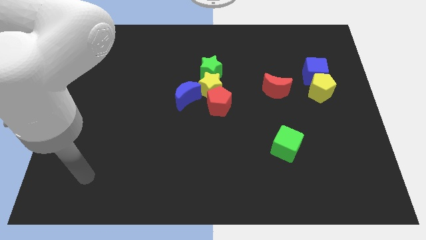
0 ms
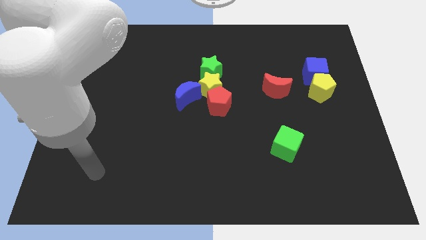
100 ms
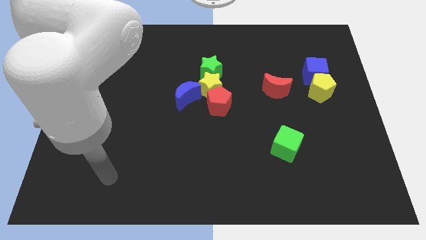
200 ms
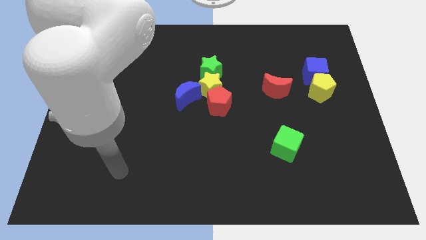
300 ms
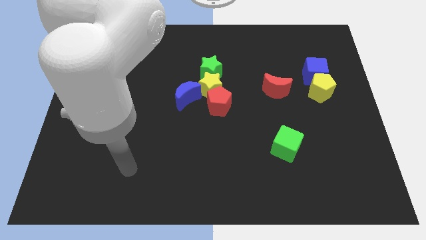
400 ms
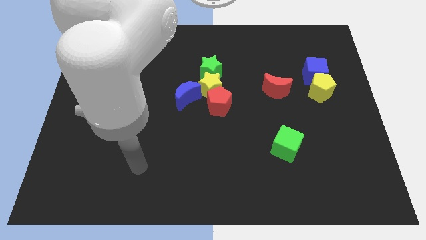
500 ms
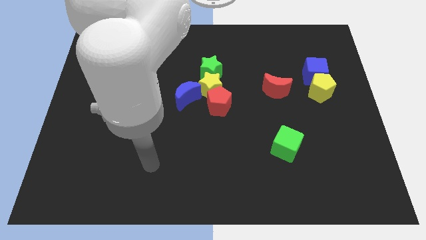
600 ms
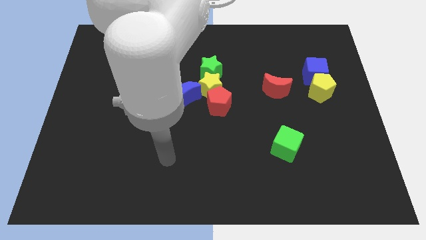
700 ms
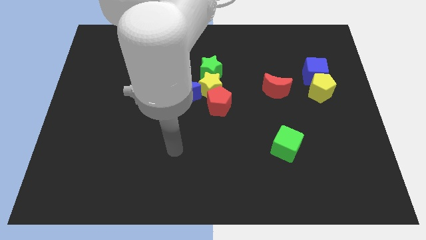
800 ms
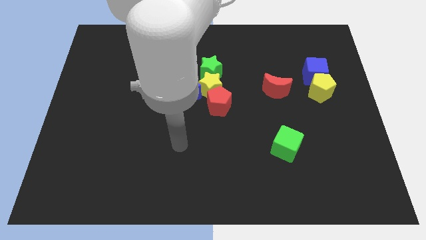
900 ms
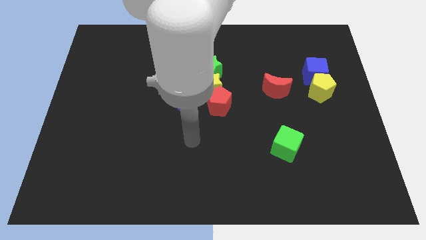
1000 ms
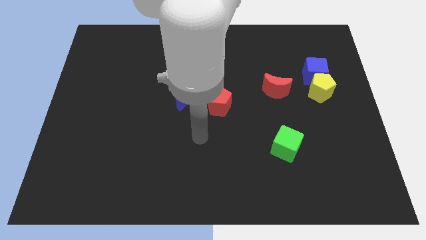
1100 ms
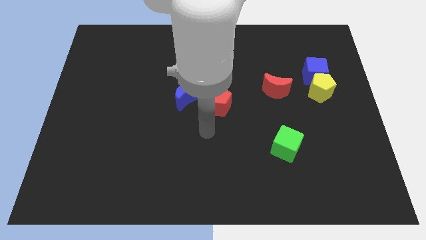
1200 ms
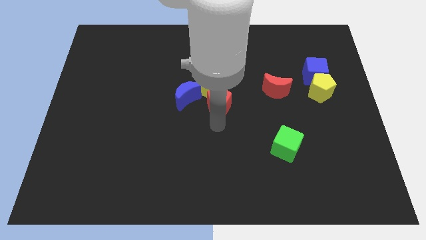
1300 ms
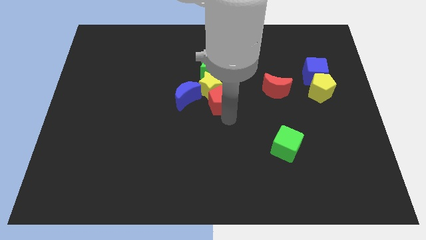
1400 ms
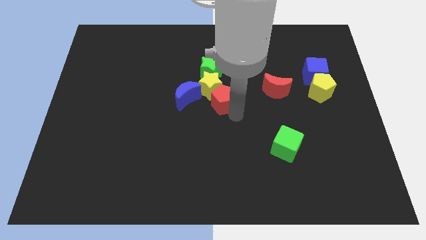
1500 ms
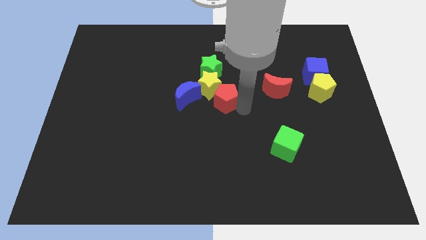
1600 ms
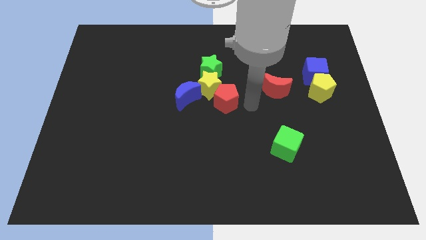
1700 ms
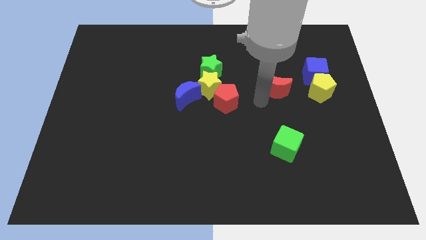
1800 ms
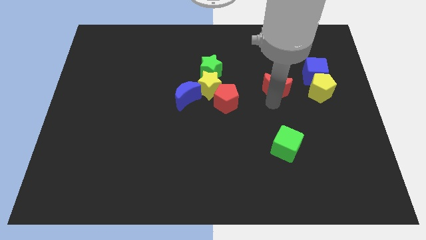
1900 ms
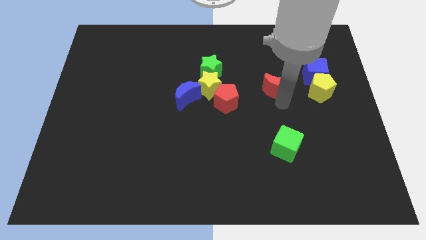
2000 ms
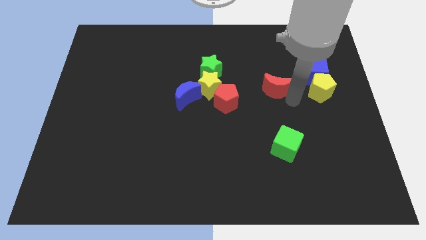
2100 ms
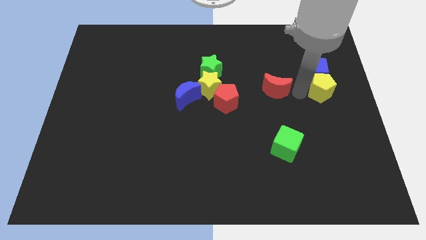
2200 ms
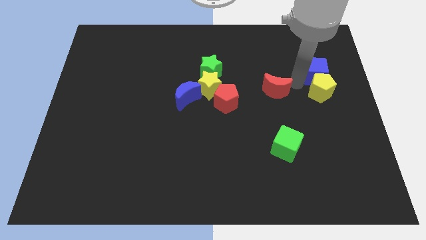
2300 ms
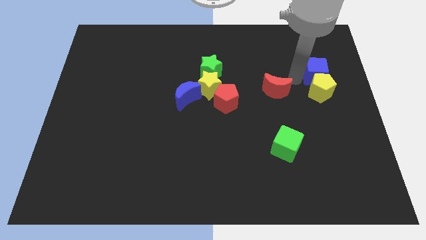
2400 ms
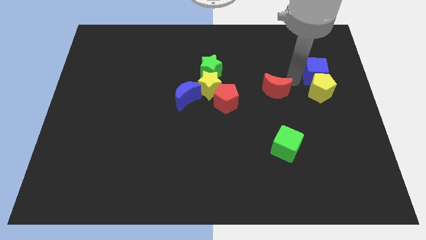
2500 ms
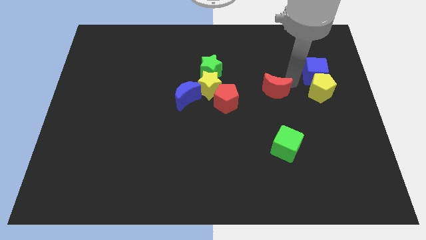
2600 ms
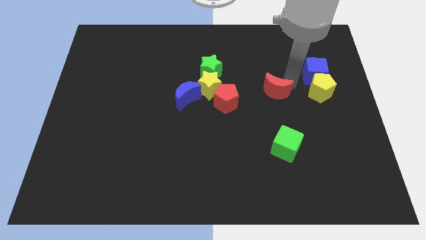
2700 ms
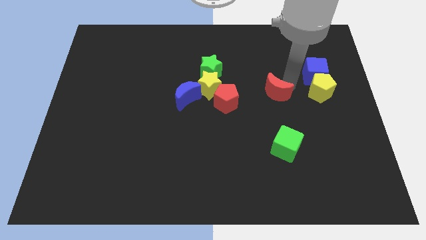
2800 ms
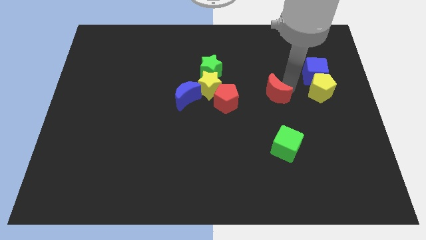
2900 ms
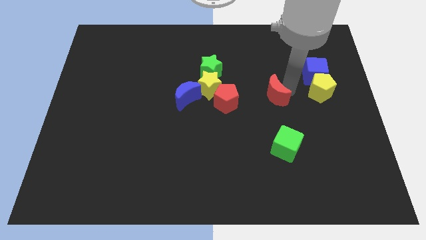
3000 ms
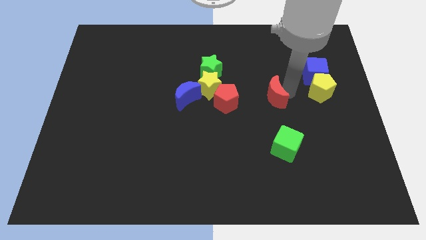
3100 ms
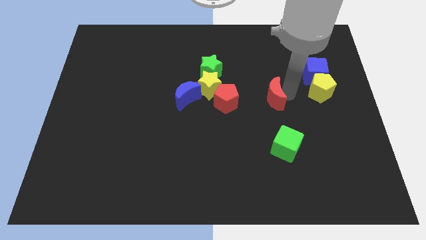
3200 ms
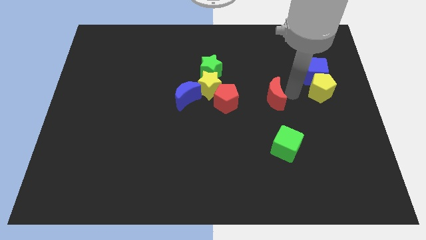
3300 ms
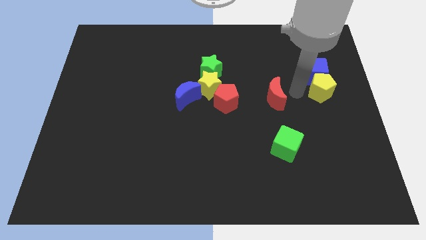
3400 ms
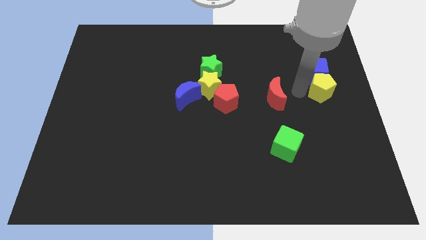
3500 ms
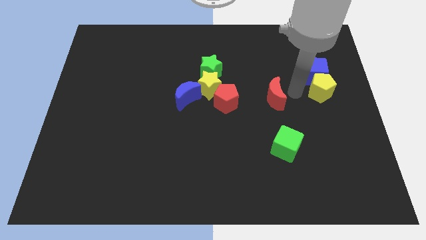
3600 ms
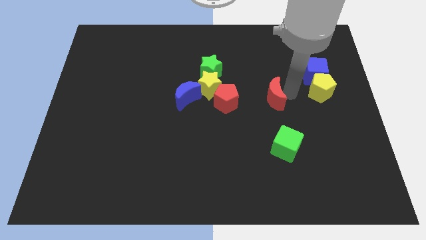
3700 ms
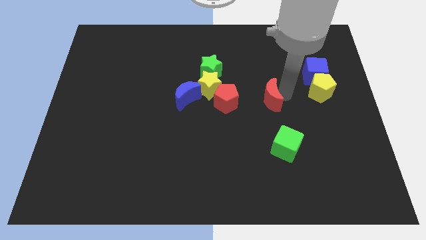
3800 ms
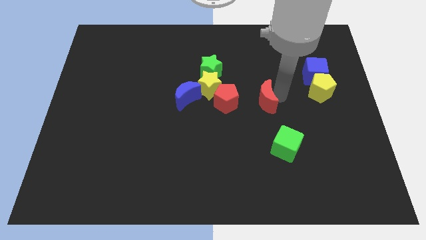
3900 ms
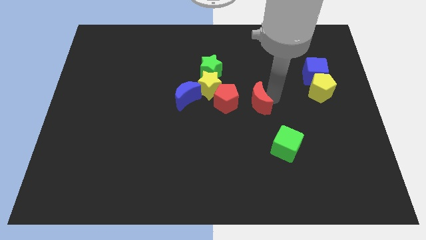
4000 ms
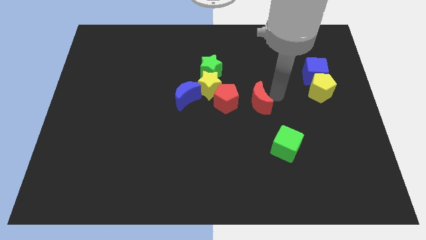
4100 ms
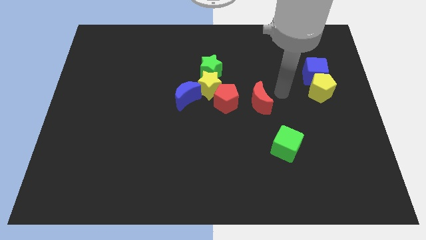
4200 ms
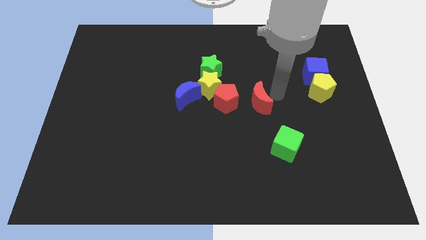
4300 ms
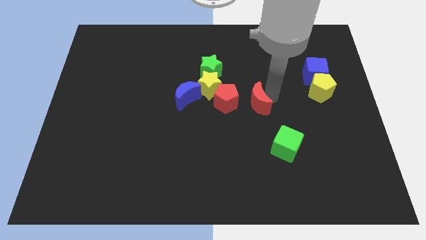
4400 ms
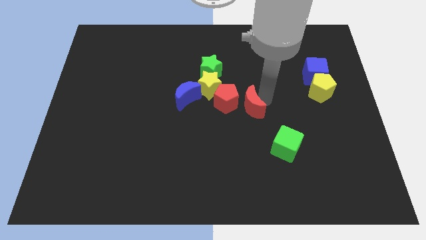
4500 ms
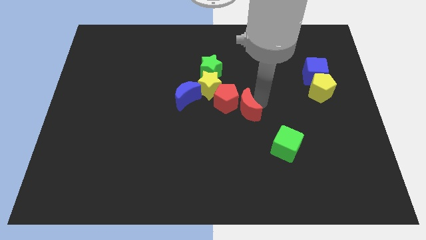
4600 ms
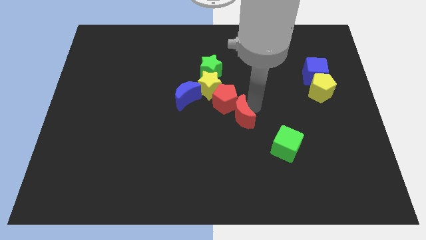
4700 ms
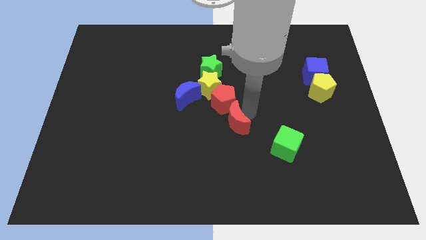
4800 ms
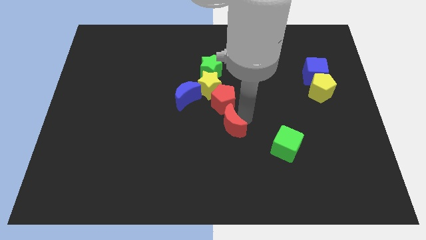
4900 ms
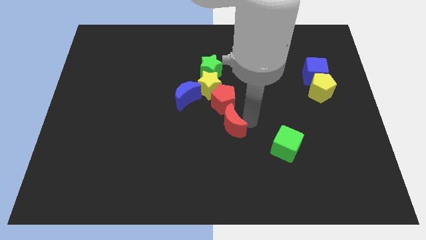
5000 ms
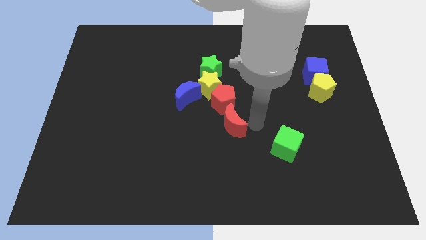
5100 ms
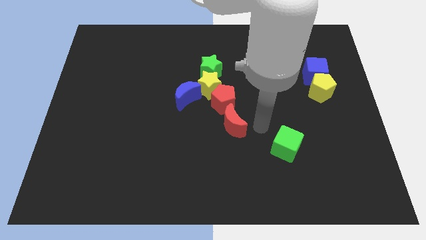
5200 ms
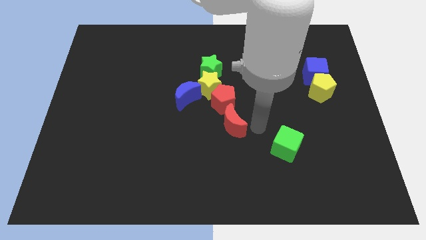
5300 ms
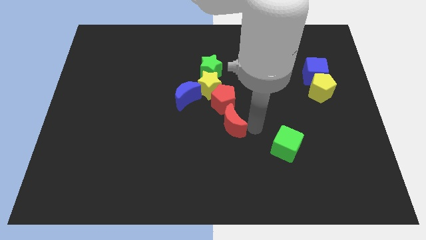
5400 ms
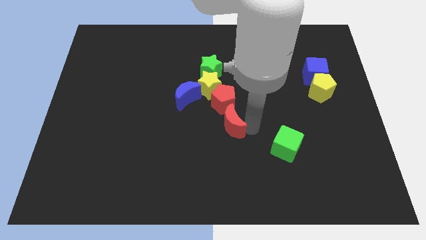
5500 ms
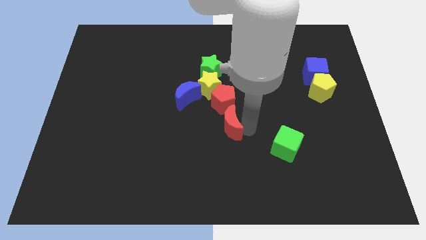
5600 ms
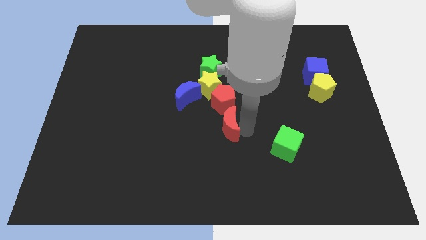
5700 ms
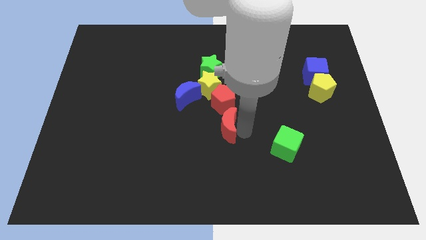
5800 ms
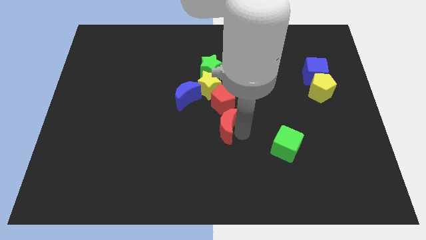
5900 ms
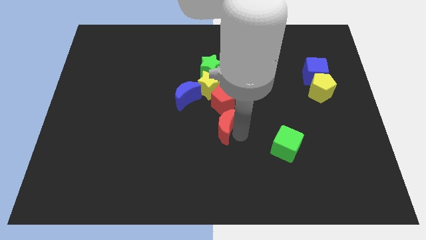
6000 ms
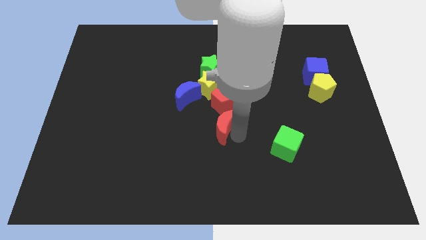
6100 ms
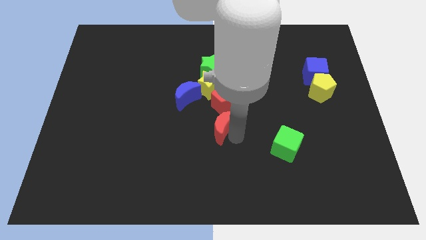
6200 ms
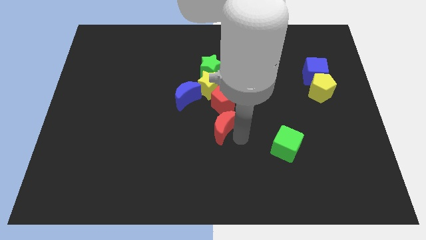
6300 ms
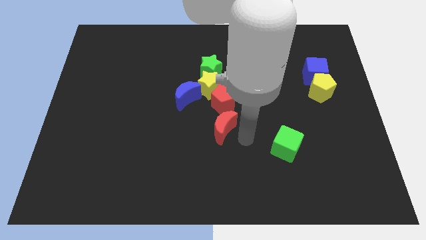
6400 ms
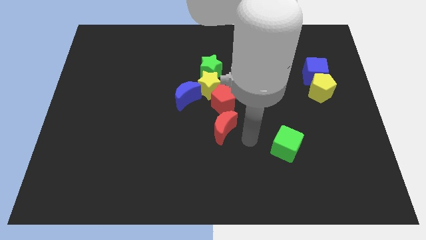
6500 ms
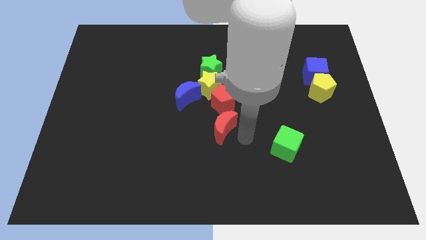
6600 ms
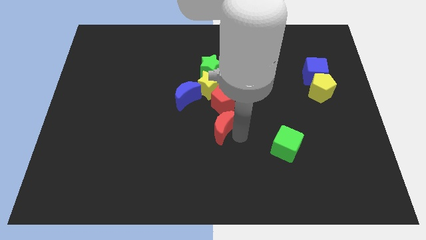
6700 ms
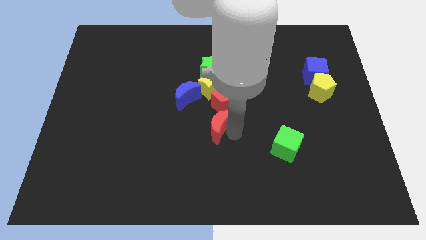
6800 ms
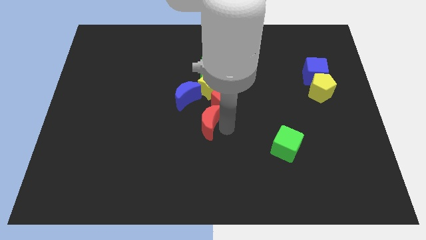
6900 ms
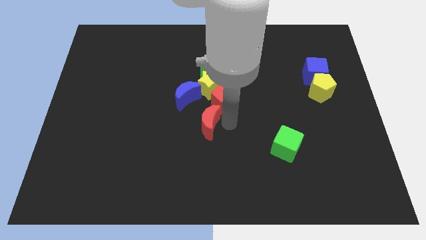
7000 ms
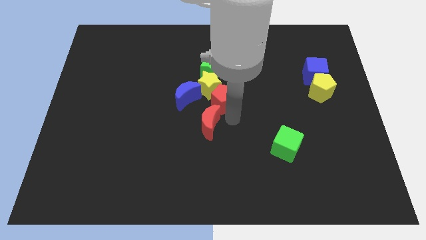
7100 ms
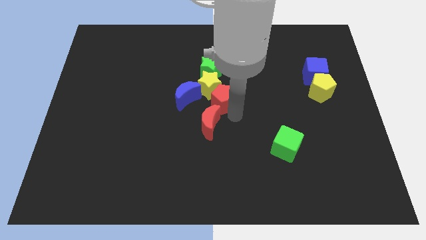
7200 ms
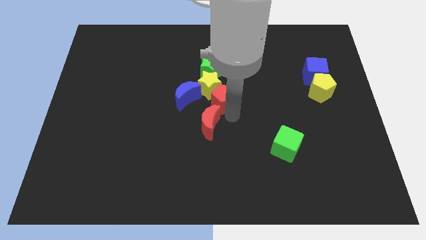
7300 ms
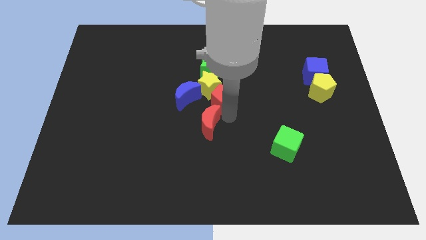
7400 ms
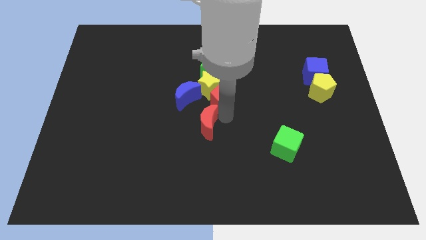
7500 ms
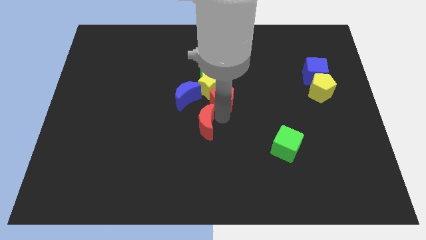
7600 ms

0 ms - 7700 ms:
move the red moon below the blue moon
